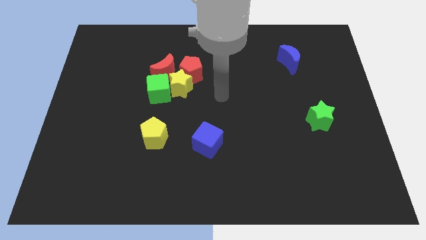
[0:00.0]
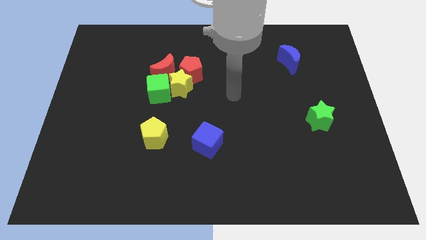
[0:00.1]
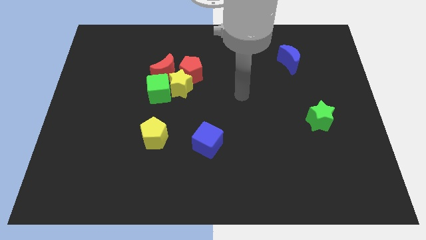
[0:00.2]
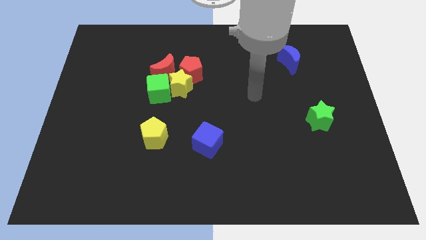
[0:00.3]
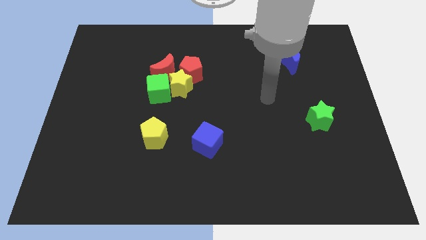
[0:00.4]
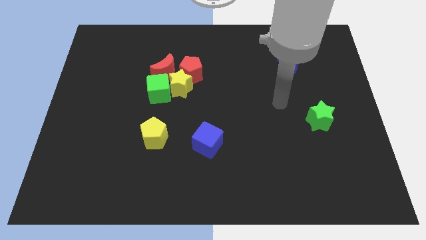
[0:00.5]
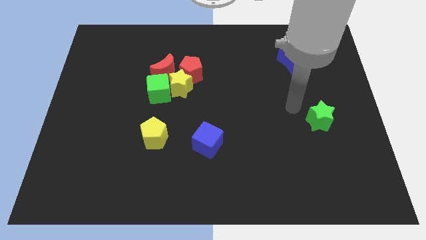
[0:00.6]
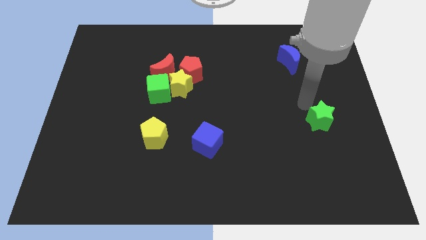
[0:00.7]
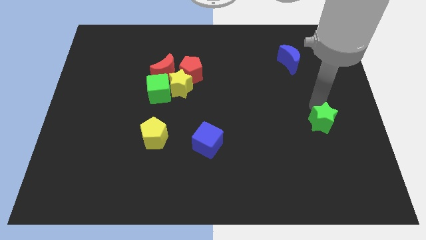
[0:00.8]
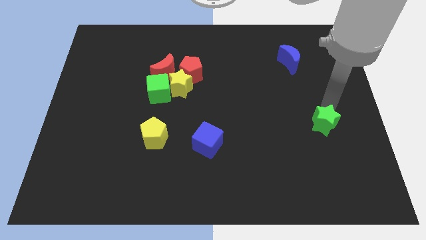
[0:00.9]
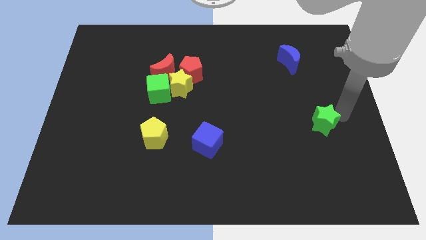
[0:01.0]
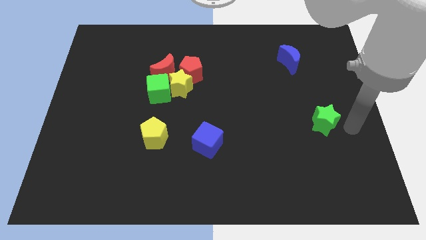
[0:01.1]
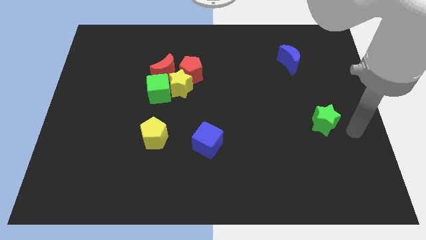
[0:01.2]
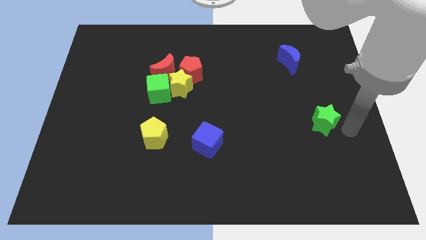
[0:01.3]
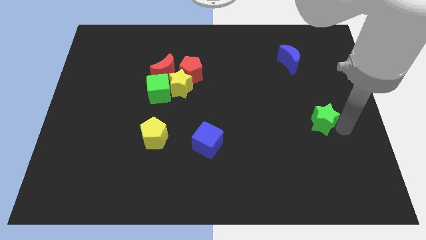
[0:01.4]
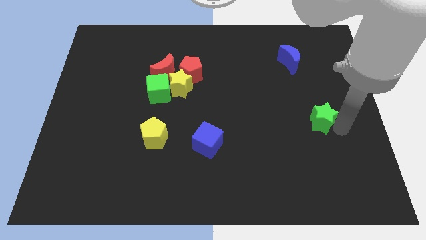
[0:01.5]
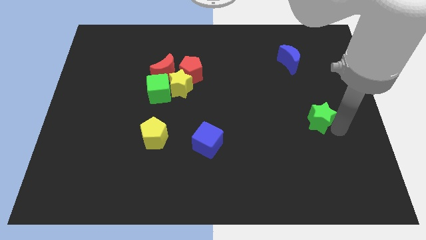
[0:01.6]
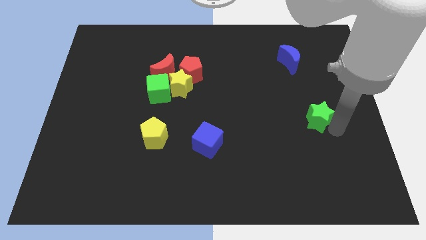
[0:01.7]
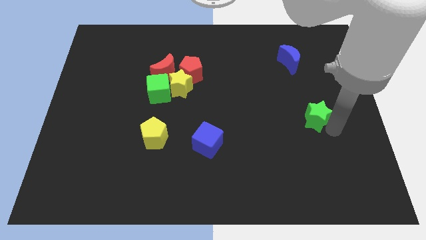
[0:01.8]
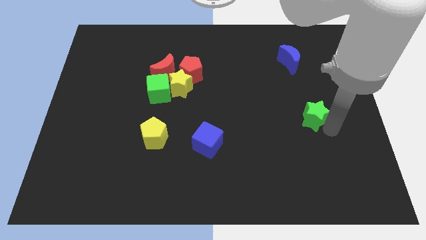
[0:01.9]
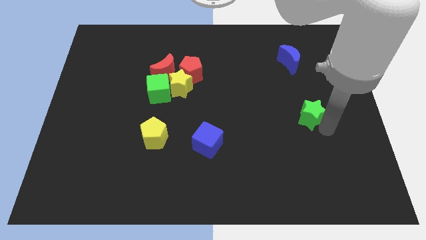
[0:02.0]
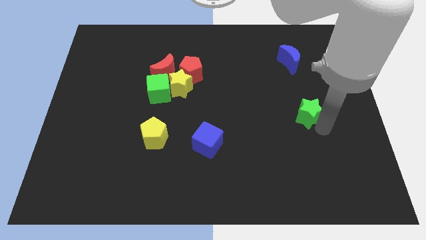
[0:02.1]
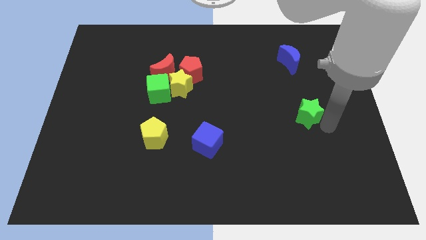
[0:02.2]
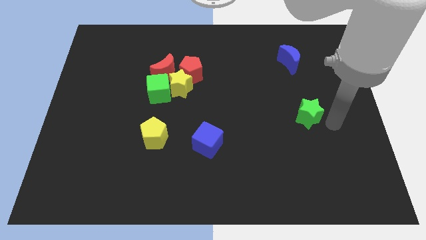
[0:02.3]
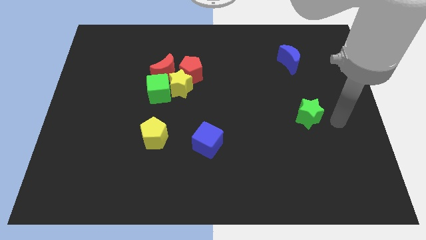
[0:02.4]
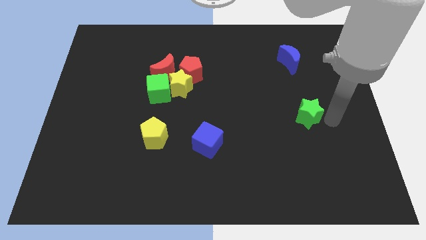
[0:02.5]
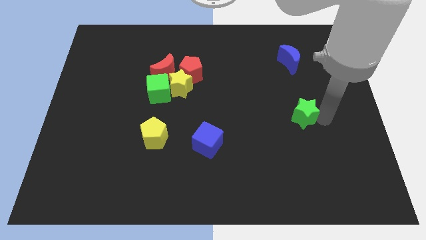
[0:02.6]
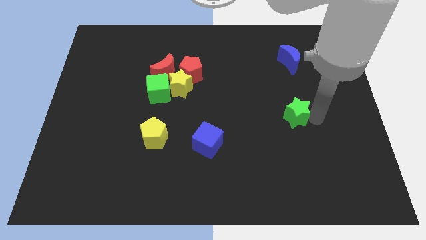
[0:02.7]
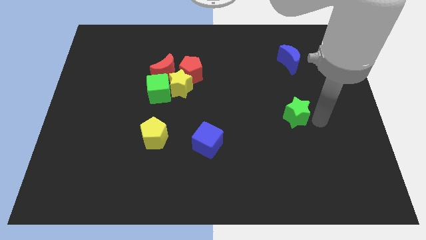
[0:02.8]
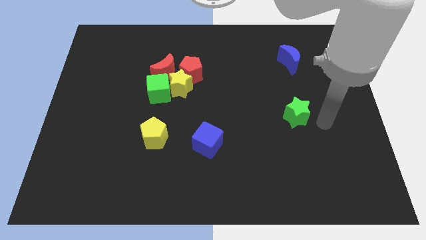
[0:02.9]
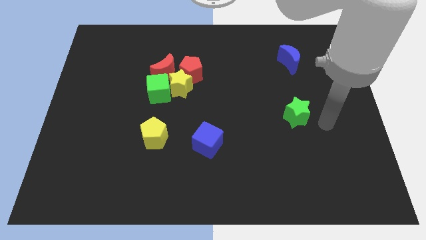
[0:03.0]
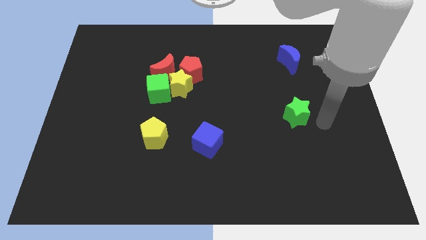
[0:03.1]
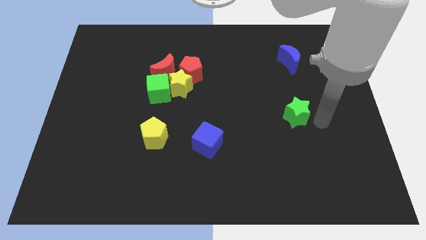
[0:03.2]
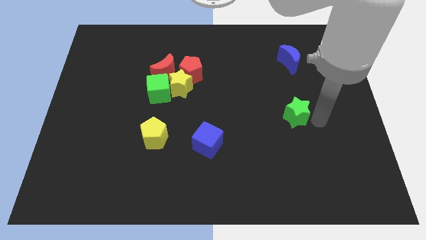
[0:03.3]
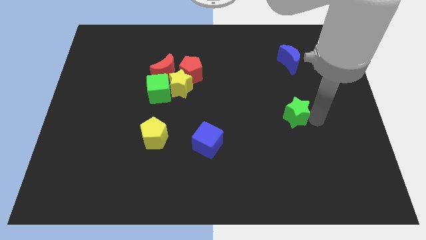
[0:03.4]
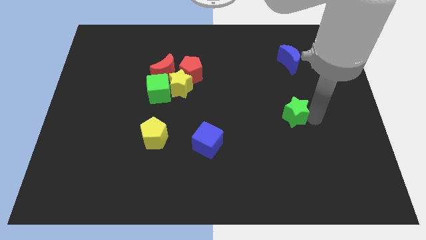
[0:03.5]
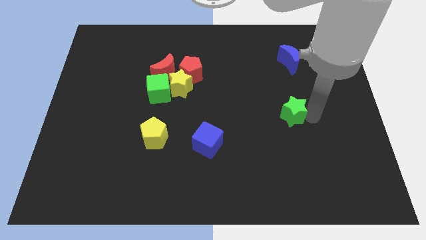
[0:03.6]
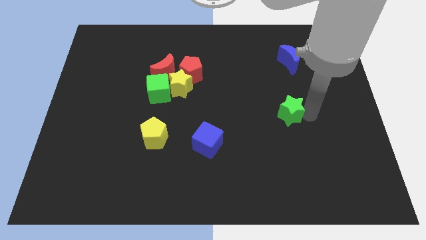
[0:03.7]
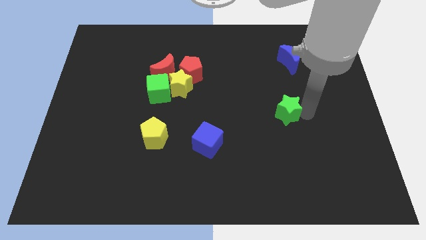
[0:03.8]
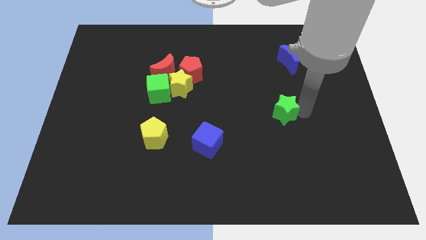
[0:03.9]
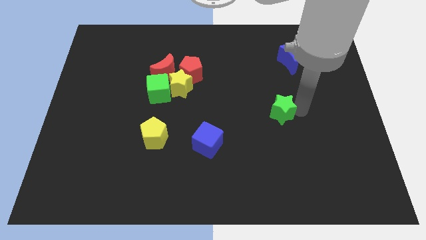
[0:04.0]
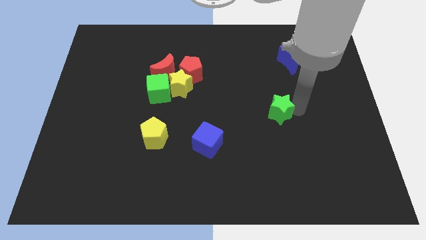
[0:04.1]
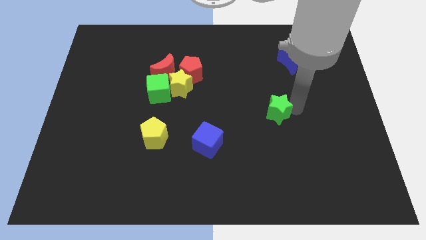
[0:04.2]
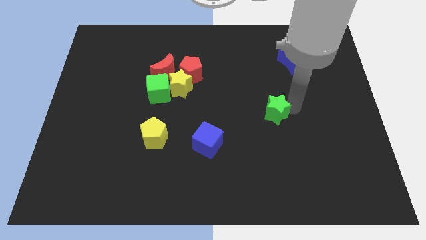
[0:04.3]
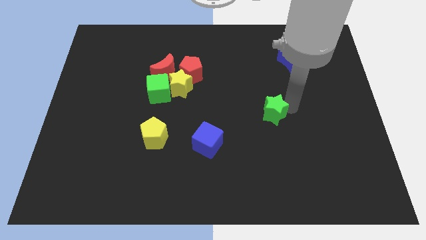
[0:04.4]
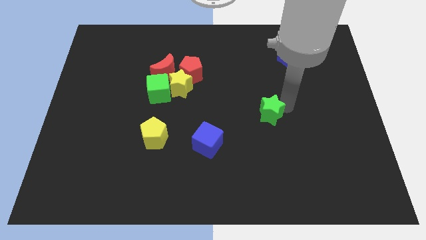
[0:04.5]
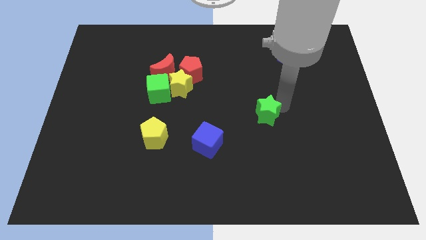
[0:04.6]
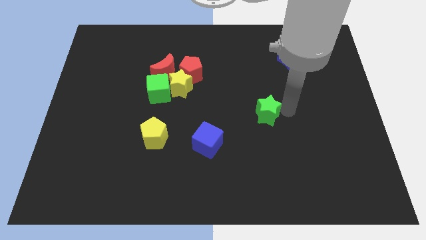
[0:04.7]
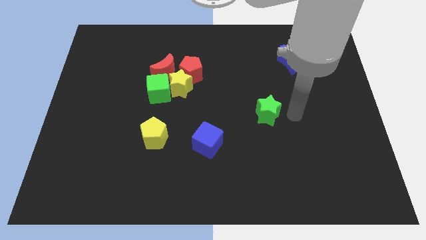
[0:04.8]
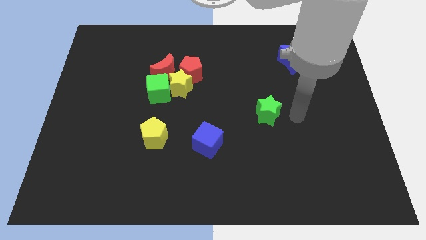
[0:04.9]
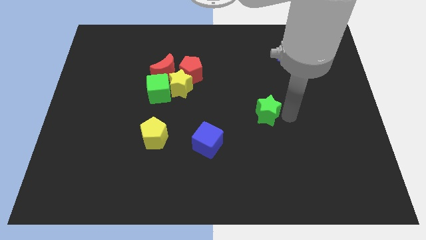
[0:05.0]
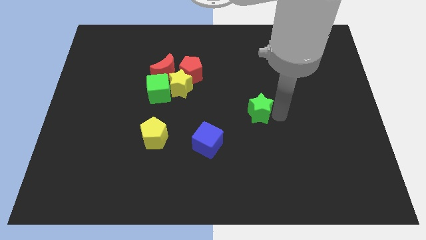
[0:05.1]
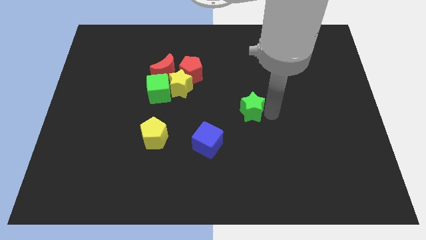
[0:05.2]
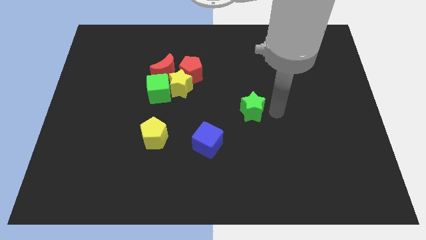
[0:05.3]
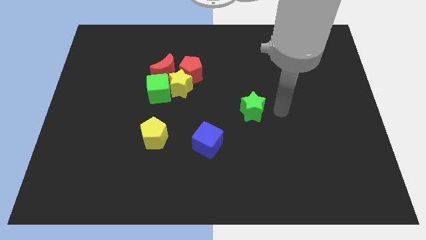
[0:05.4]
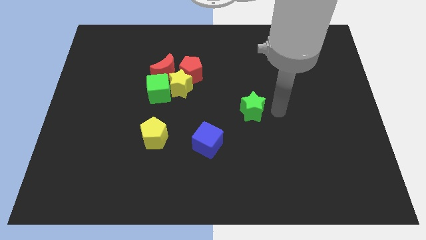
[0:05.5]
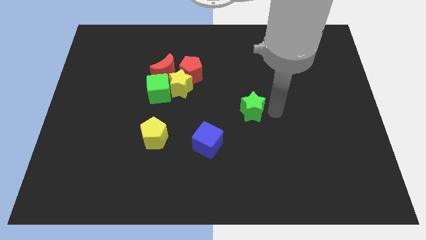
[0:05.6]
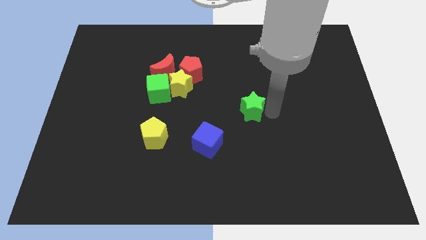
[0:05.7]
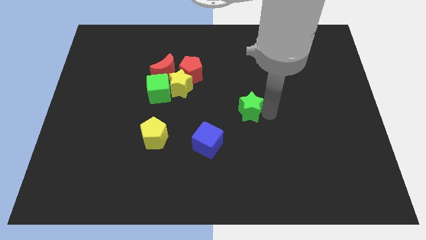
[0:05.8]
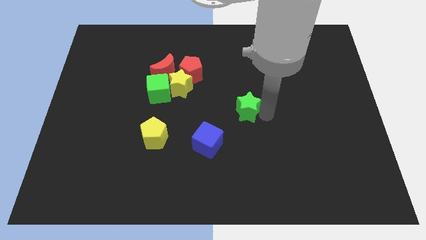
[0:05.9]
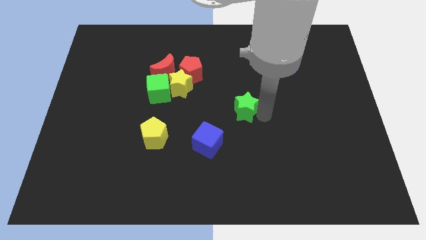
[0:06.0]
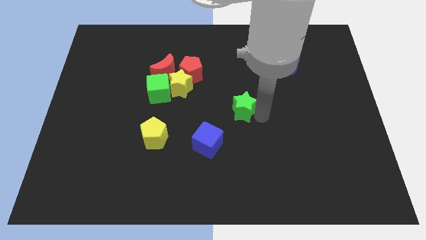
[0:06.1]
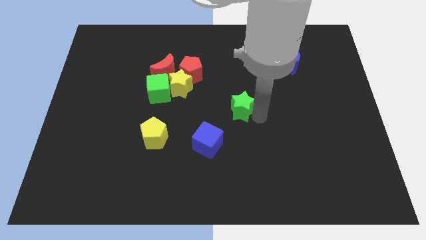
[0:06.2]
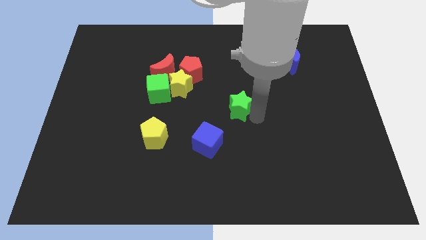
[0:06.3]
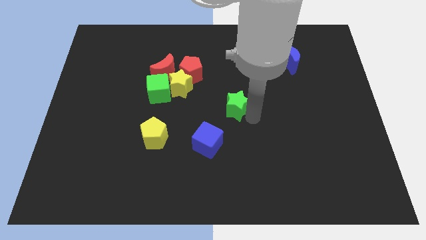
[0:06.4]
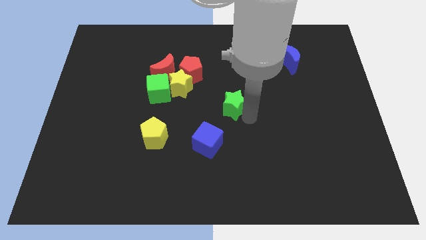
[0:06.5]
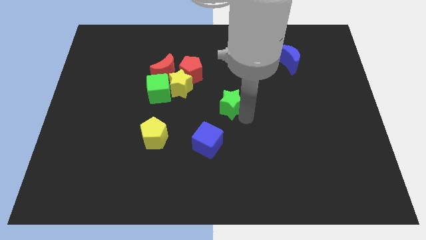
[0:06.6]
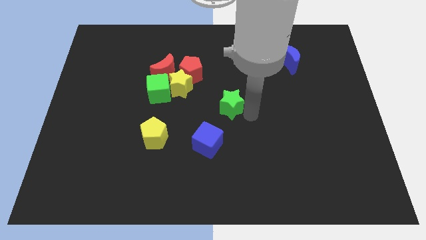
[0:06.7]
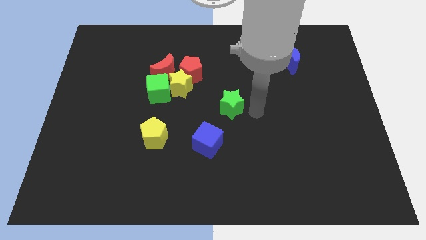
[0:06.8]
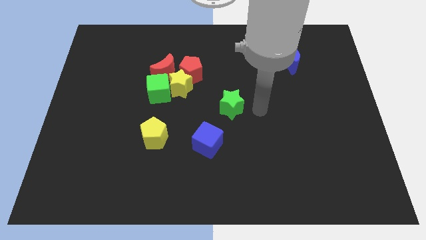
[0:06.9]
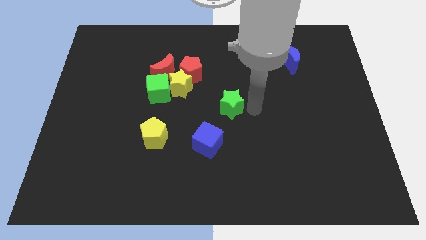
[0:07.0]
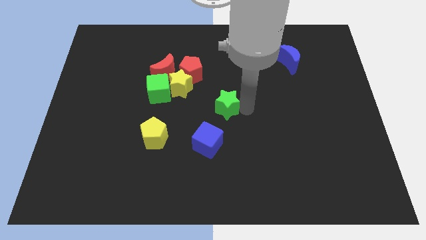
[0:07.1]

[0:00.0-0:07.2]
slide the green star to the top of the blue cube
